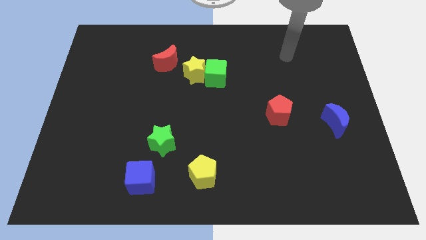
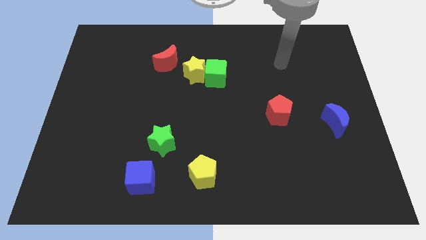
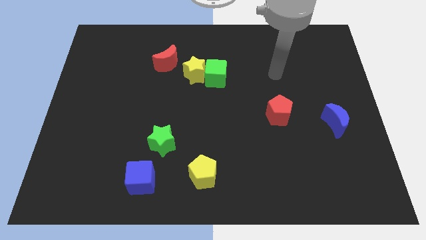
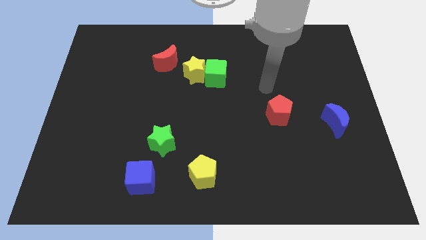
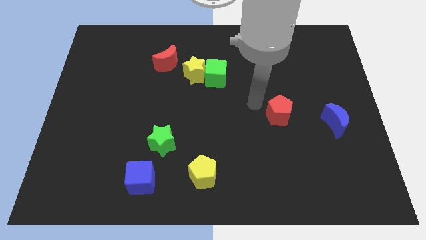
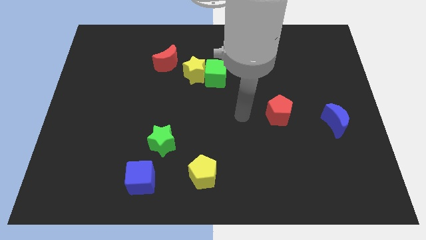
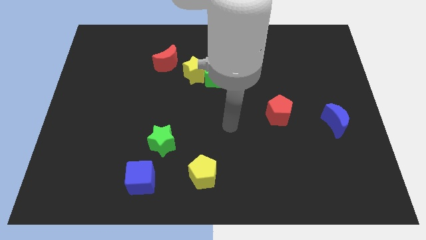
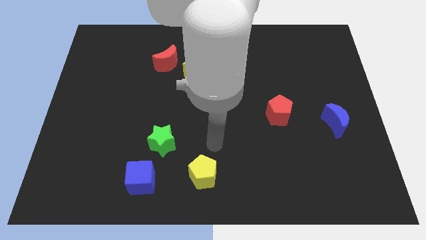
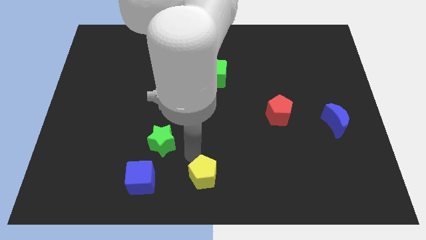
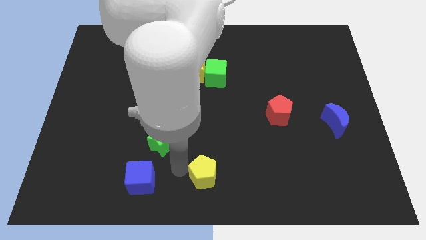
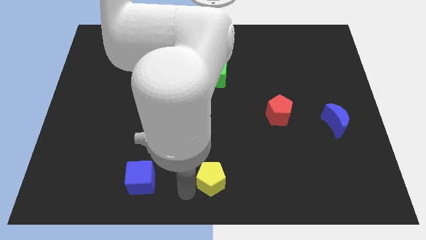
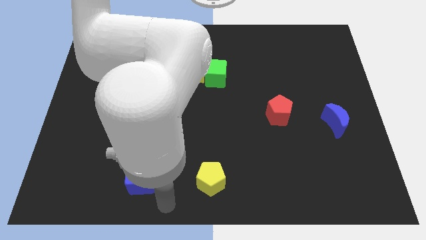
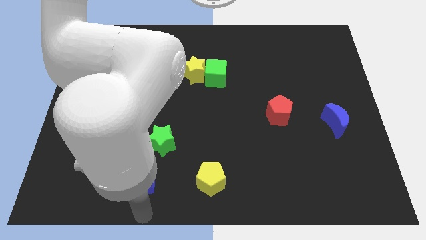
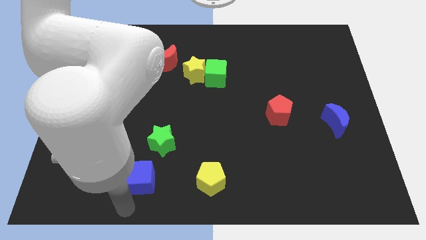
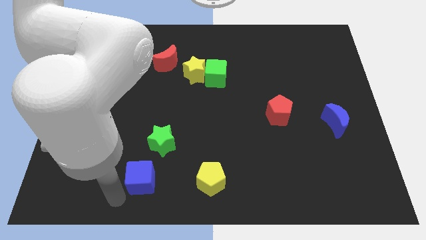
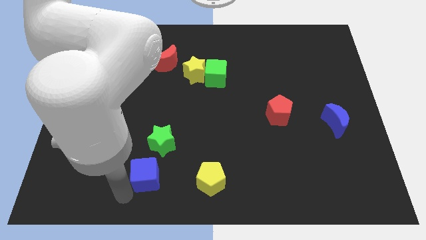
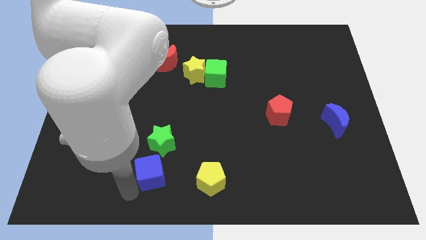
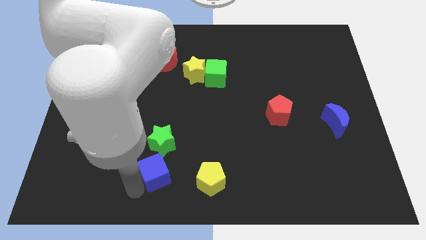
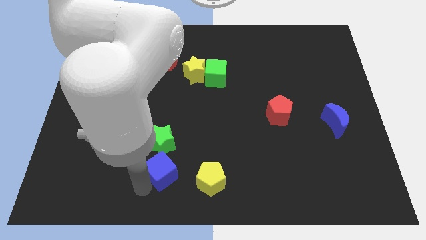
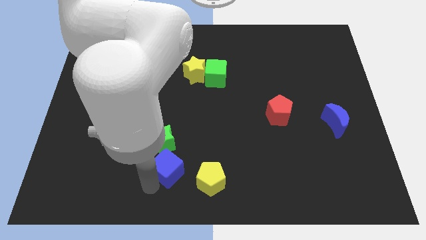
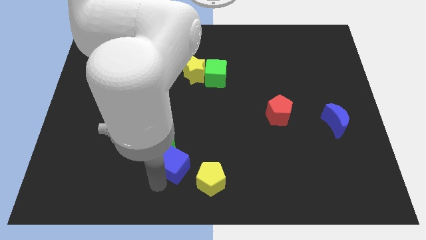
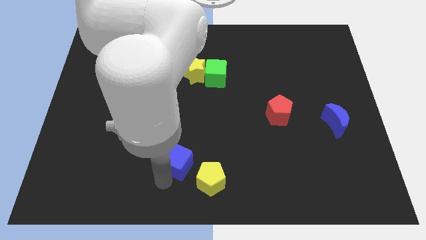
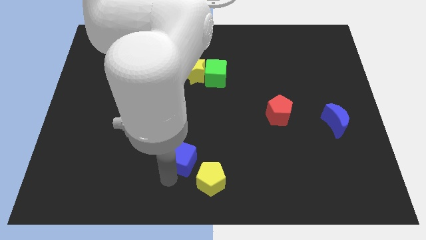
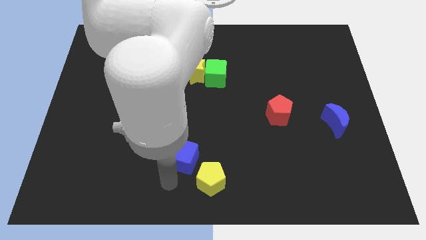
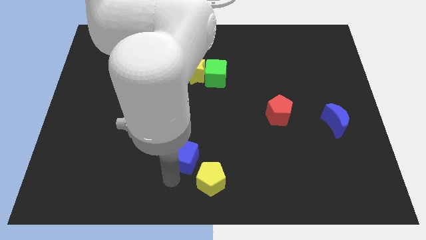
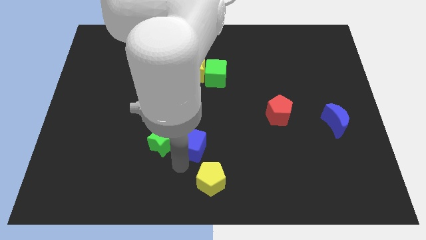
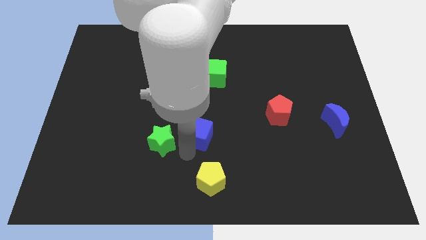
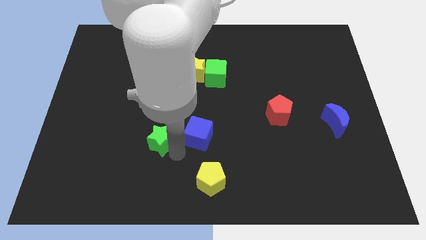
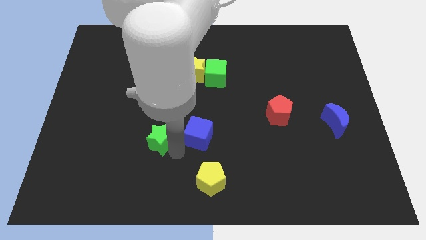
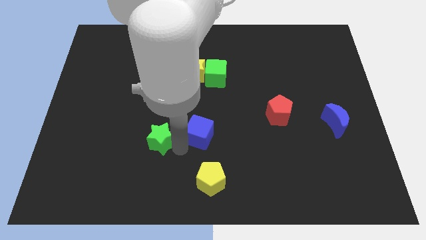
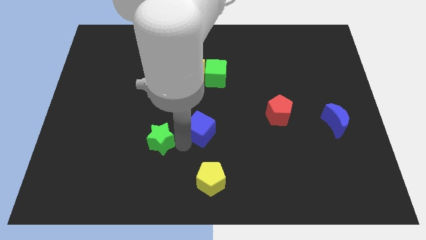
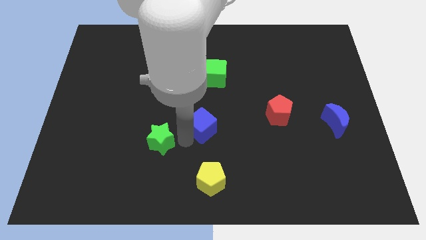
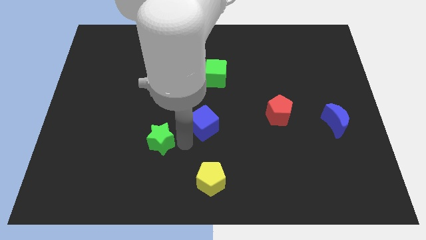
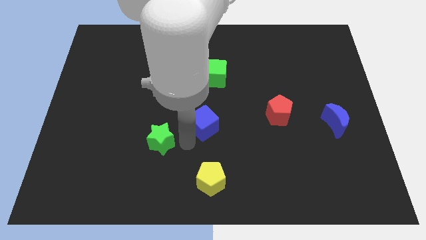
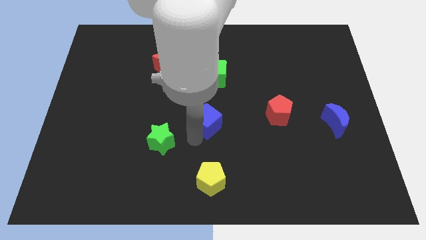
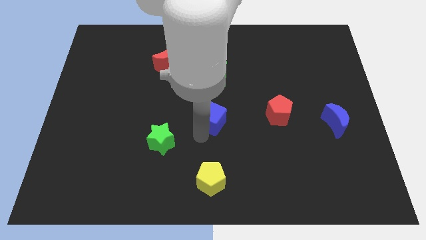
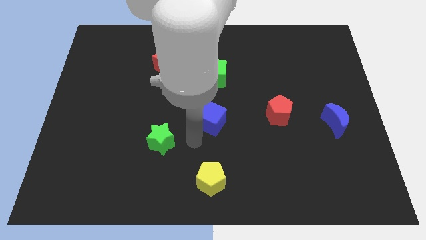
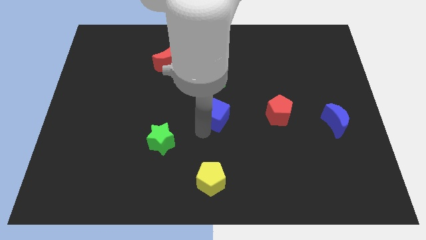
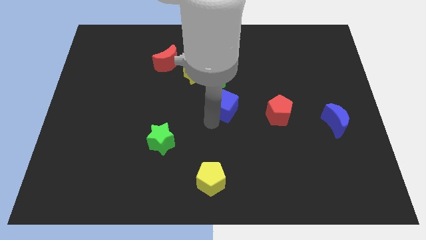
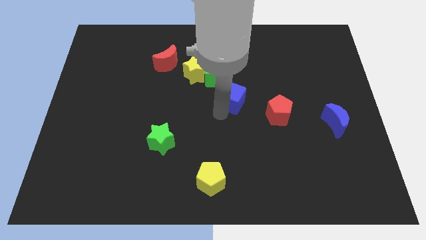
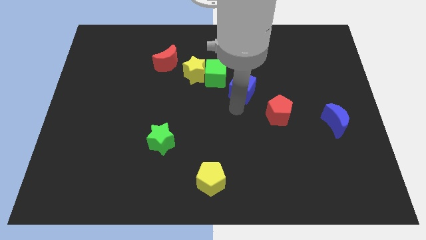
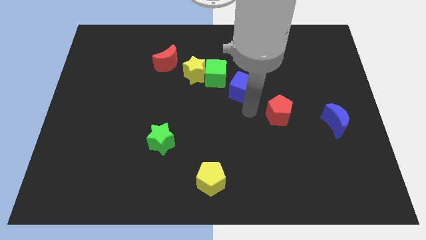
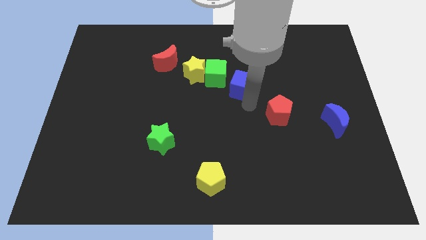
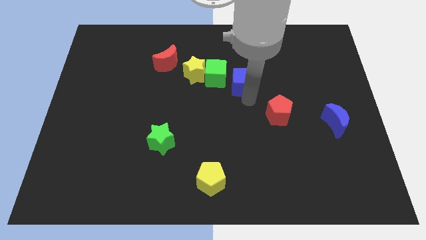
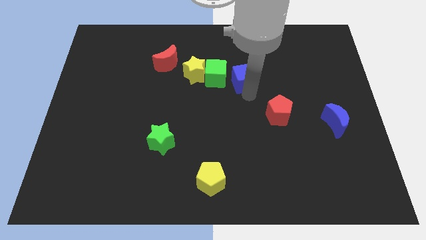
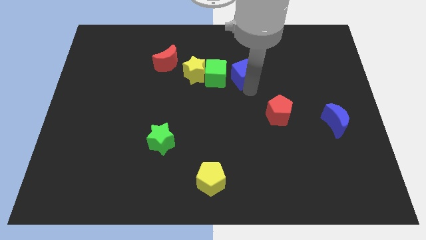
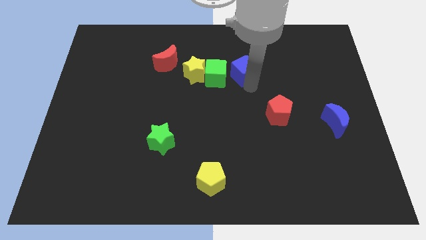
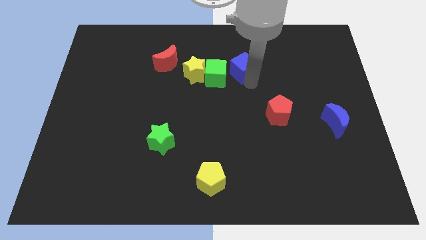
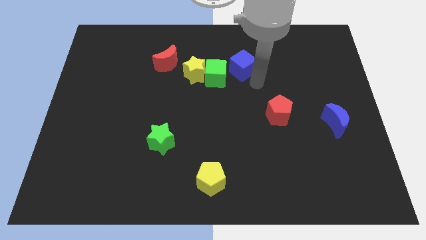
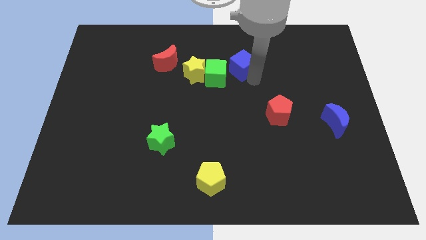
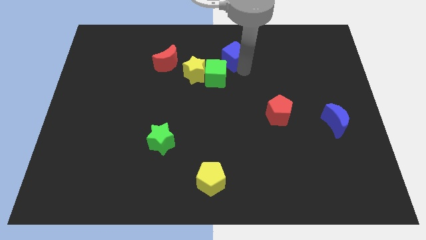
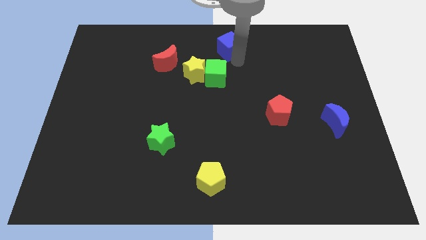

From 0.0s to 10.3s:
slide the blue cube to the towards your base
